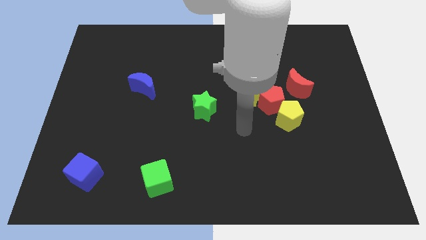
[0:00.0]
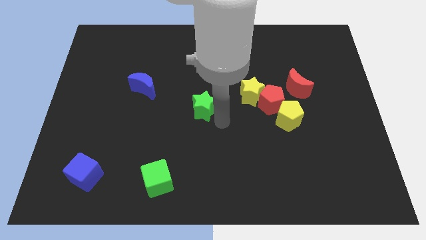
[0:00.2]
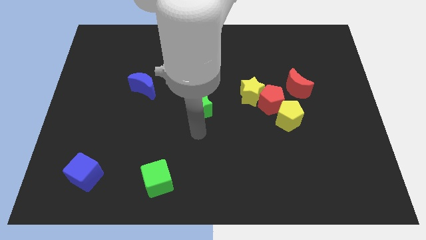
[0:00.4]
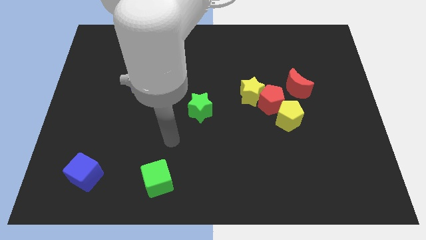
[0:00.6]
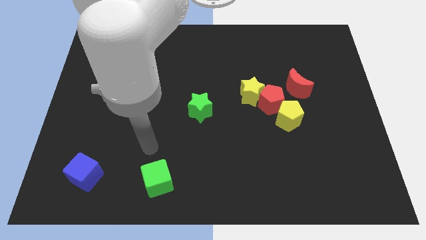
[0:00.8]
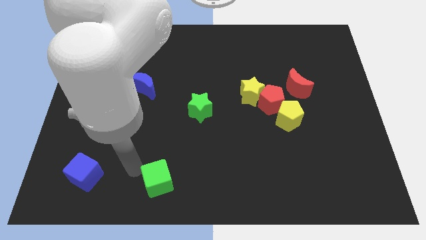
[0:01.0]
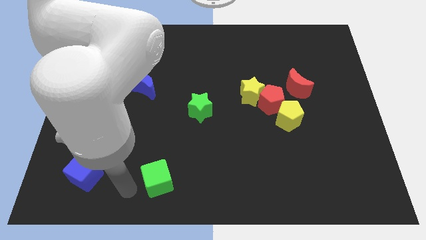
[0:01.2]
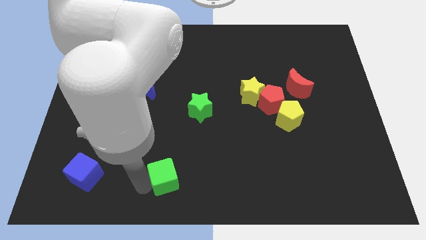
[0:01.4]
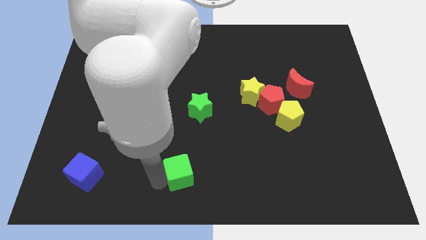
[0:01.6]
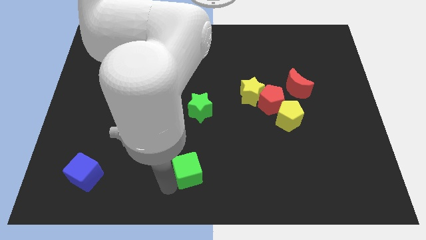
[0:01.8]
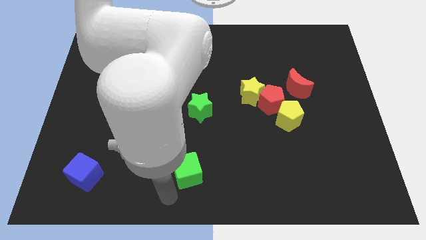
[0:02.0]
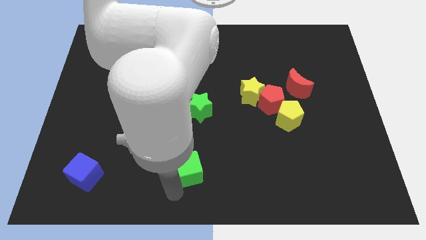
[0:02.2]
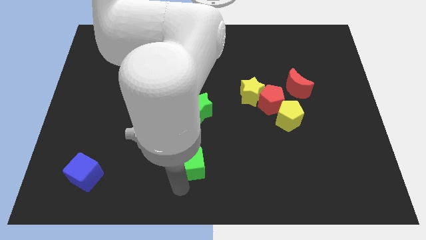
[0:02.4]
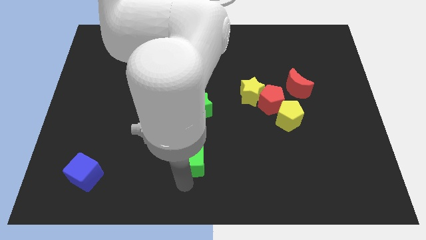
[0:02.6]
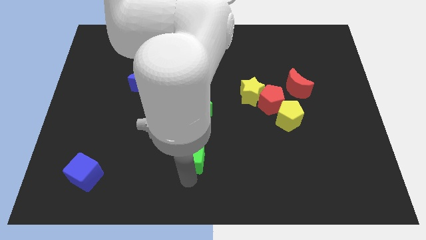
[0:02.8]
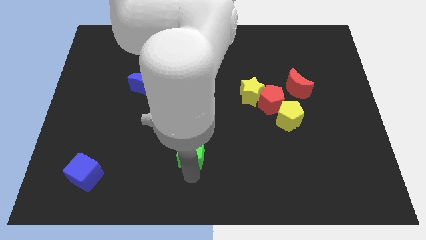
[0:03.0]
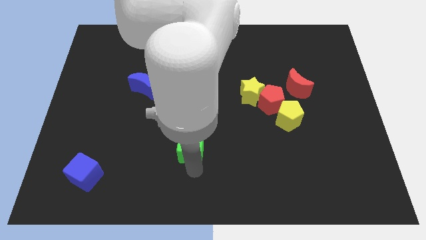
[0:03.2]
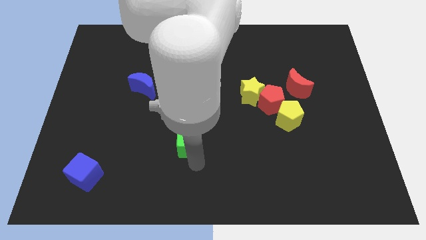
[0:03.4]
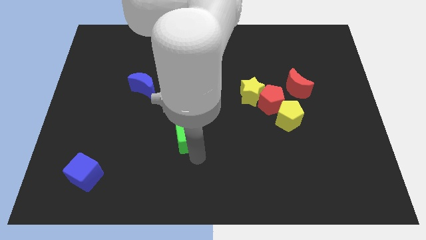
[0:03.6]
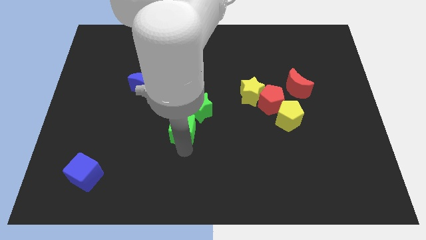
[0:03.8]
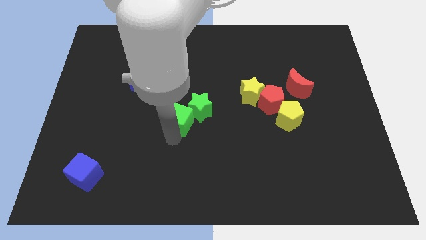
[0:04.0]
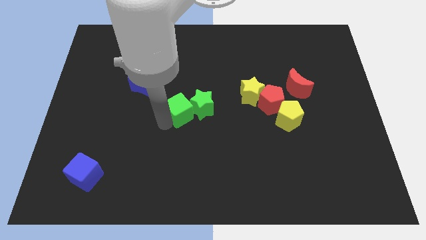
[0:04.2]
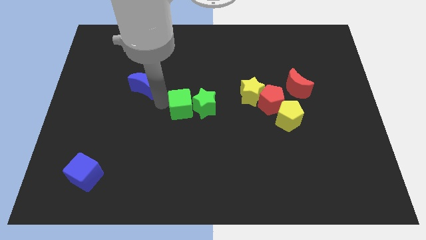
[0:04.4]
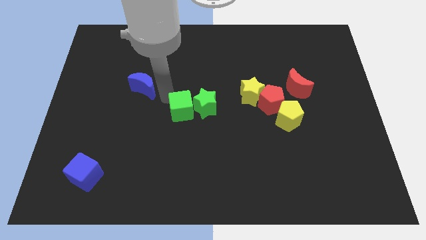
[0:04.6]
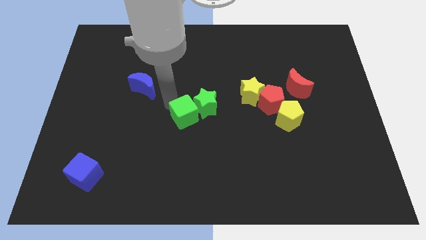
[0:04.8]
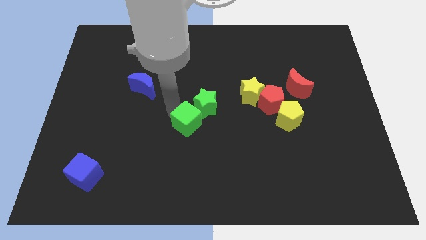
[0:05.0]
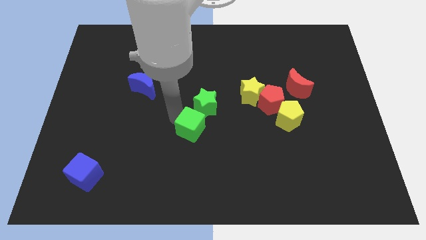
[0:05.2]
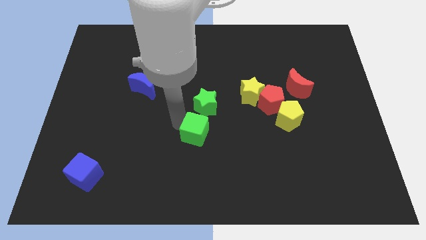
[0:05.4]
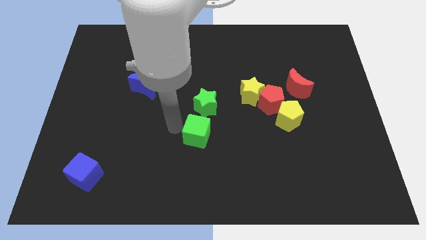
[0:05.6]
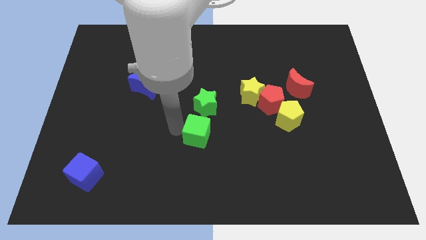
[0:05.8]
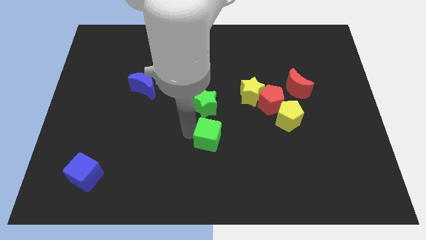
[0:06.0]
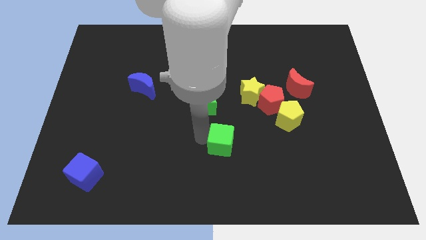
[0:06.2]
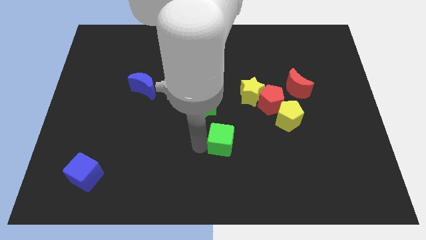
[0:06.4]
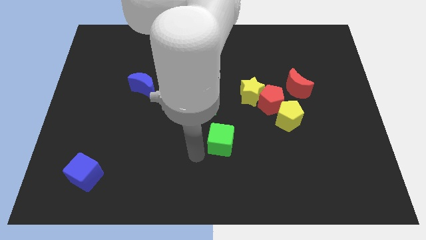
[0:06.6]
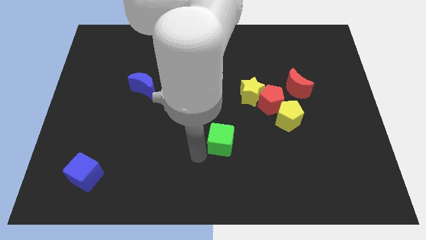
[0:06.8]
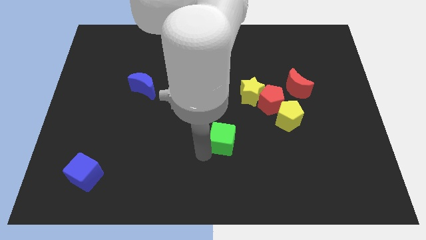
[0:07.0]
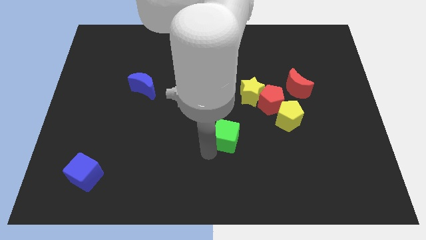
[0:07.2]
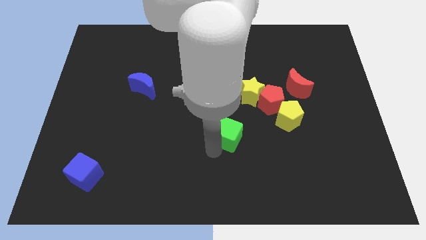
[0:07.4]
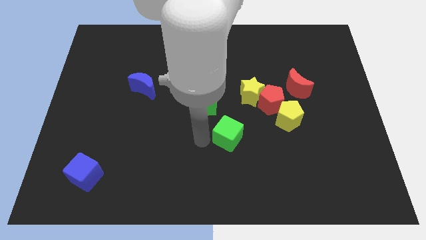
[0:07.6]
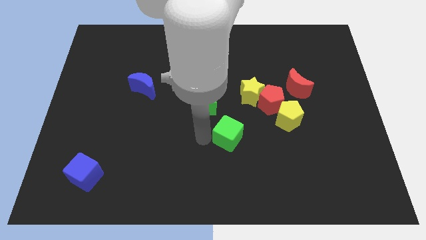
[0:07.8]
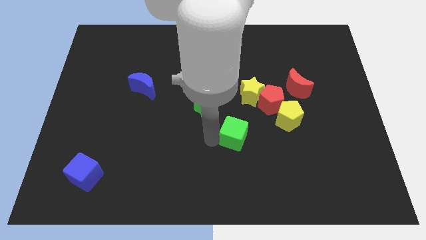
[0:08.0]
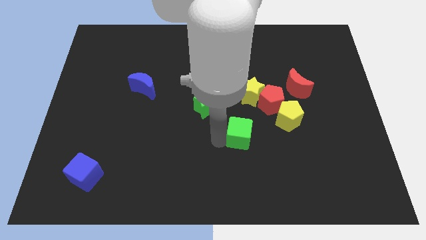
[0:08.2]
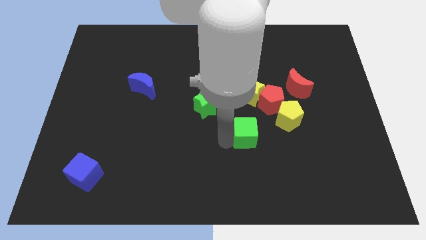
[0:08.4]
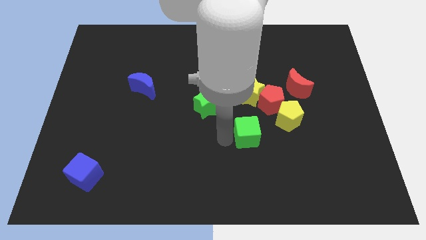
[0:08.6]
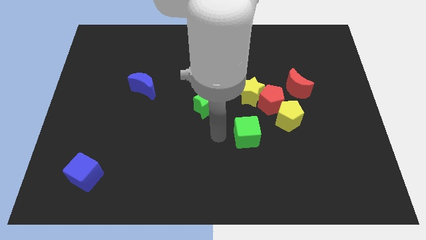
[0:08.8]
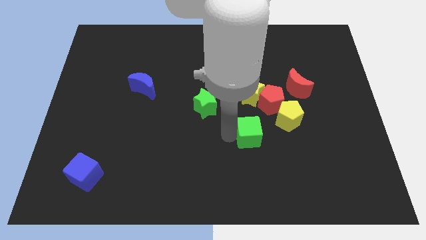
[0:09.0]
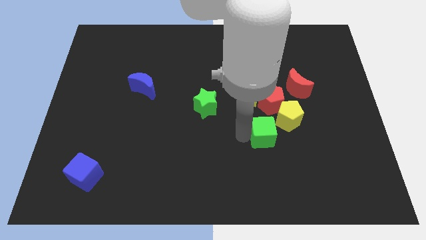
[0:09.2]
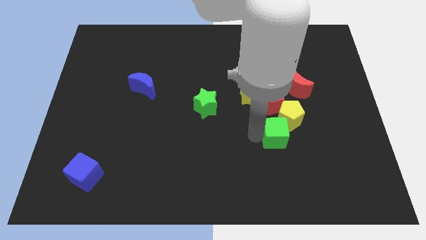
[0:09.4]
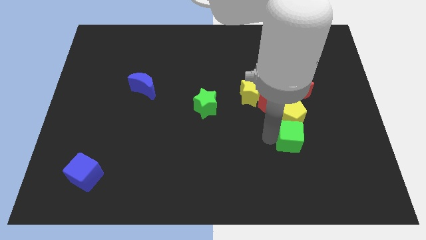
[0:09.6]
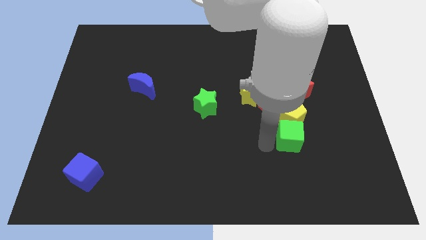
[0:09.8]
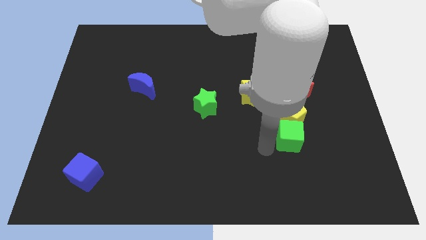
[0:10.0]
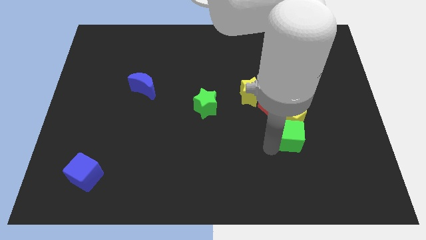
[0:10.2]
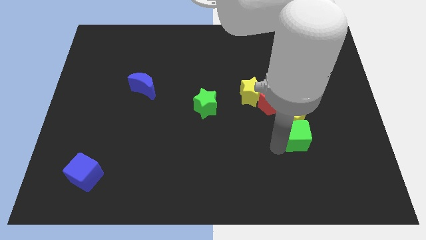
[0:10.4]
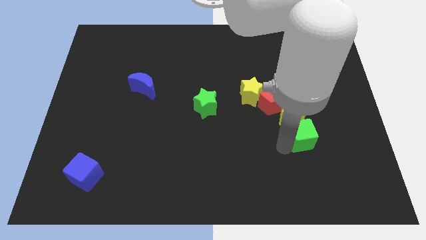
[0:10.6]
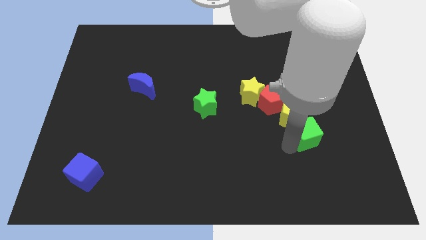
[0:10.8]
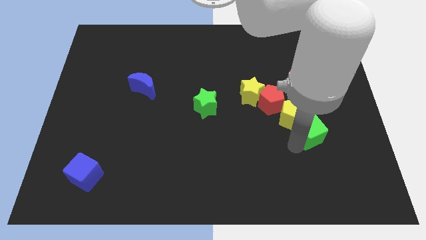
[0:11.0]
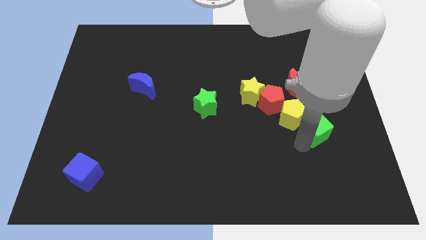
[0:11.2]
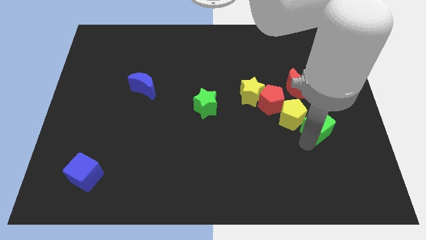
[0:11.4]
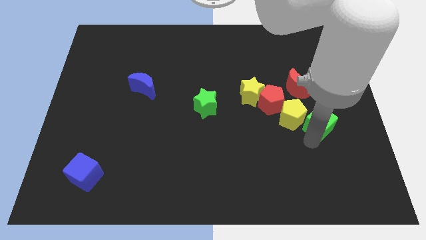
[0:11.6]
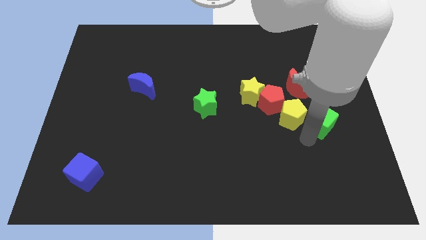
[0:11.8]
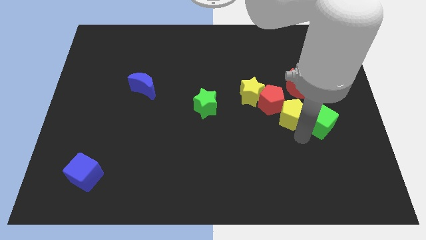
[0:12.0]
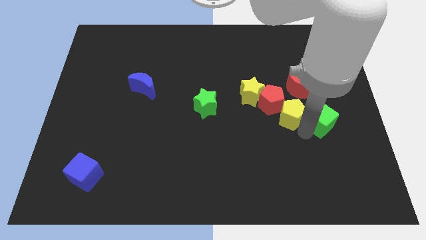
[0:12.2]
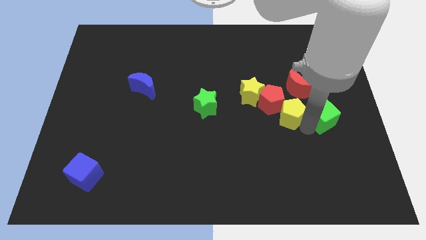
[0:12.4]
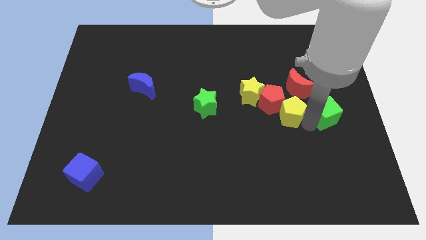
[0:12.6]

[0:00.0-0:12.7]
put the green cube to the right side of the board
